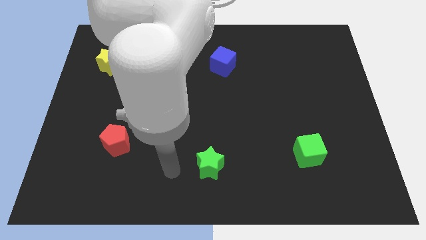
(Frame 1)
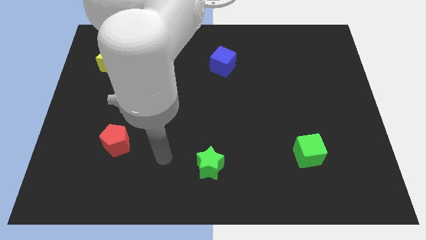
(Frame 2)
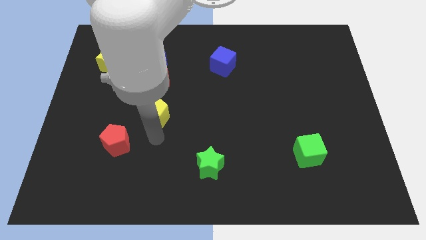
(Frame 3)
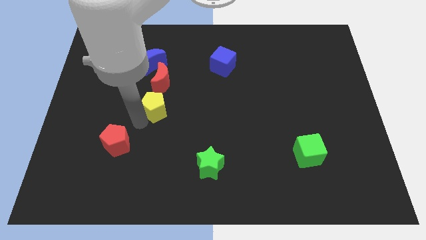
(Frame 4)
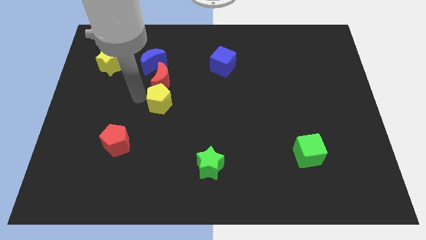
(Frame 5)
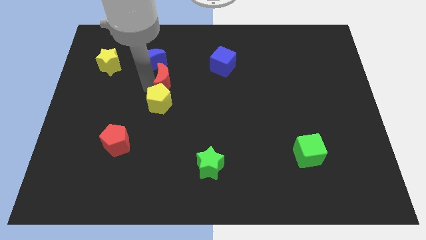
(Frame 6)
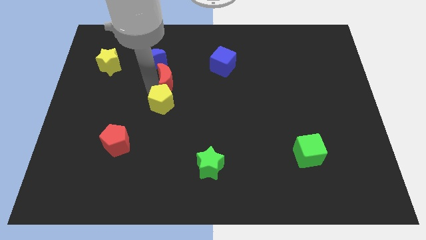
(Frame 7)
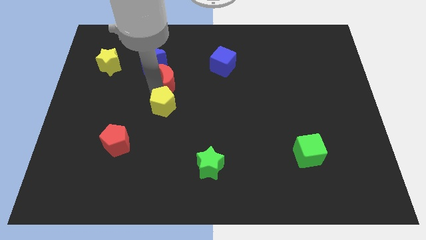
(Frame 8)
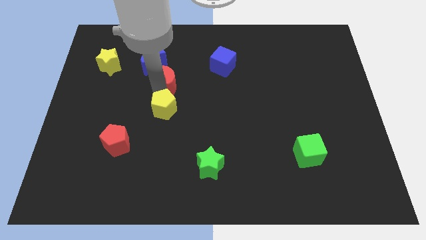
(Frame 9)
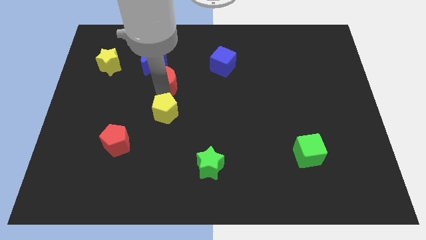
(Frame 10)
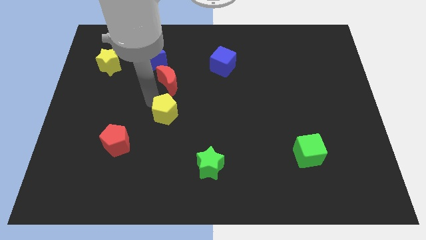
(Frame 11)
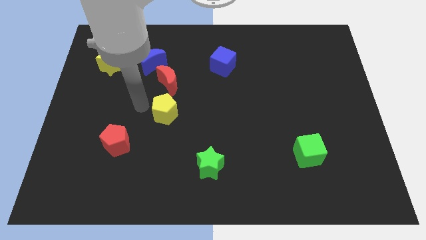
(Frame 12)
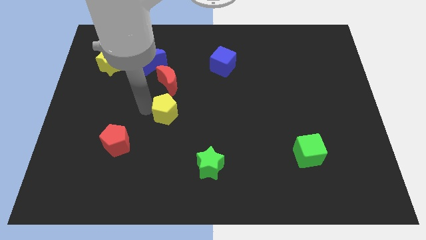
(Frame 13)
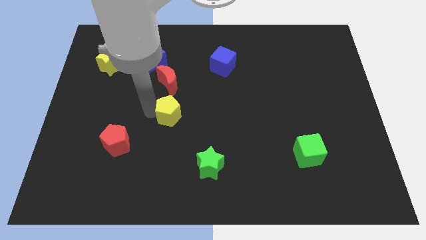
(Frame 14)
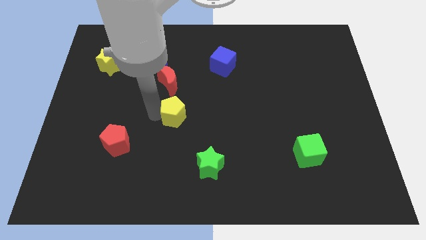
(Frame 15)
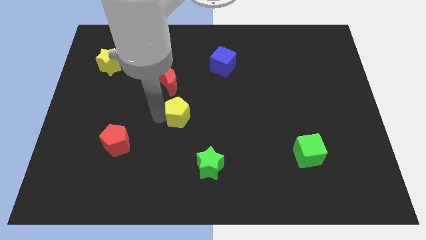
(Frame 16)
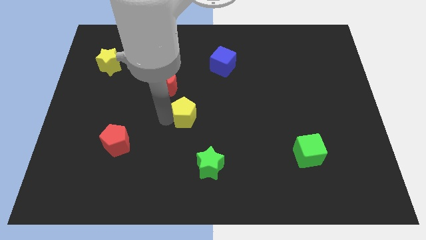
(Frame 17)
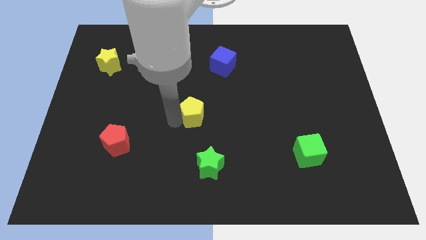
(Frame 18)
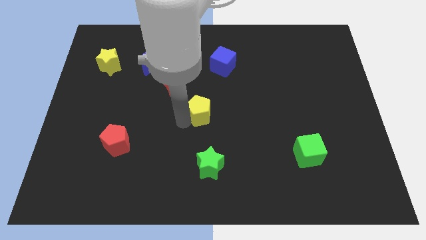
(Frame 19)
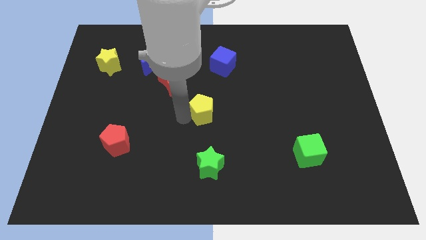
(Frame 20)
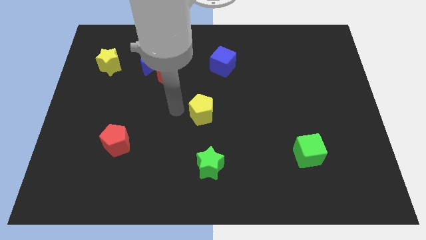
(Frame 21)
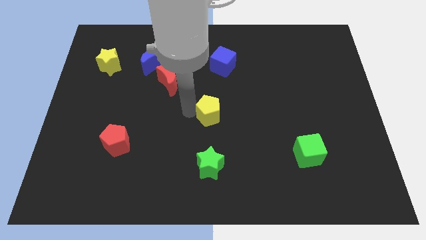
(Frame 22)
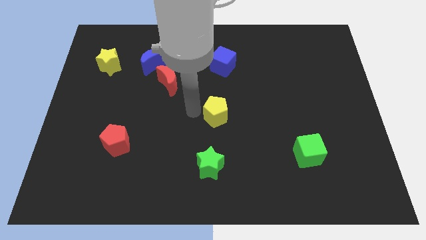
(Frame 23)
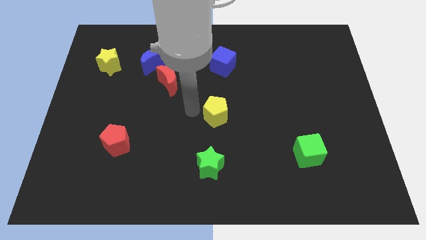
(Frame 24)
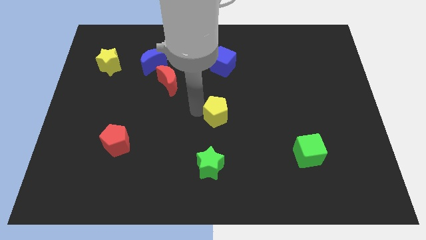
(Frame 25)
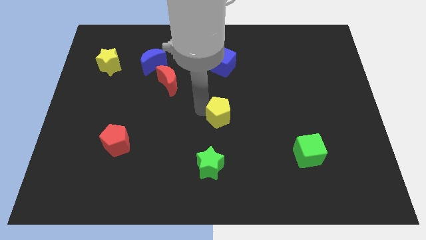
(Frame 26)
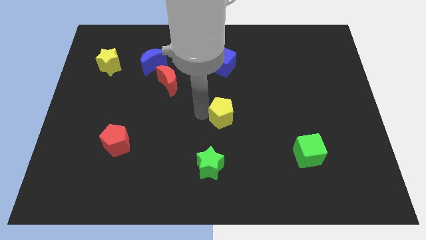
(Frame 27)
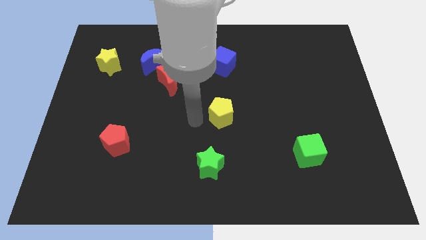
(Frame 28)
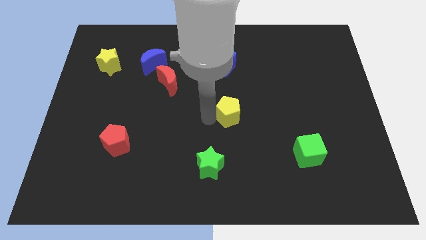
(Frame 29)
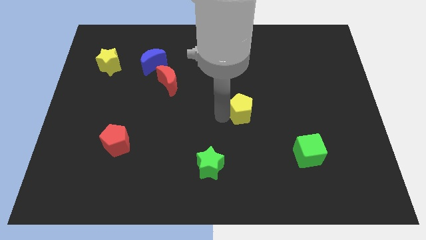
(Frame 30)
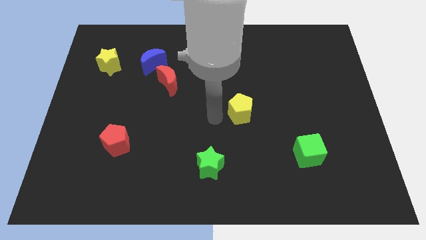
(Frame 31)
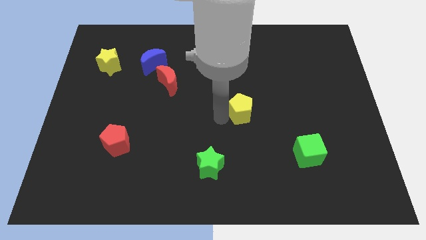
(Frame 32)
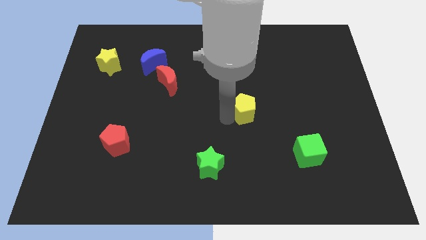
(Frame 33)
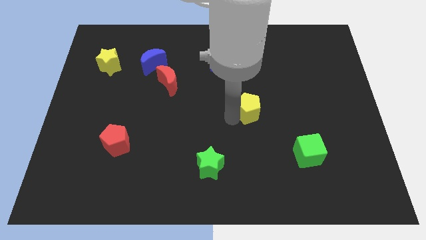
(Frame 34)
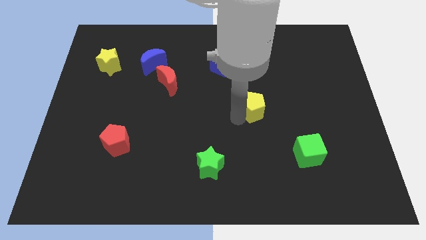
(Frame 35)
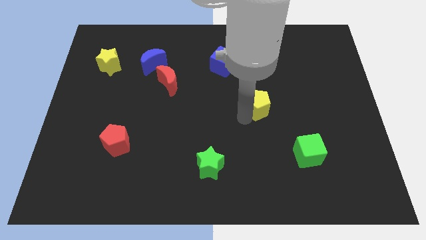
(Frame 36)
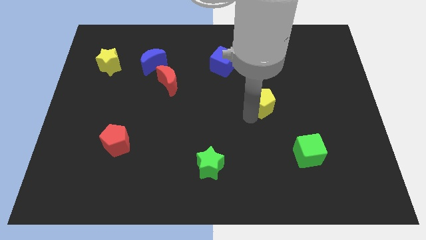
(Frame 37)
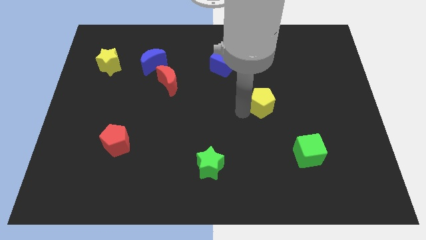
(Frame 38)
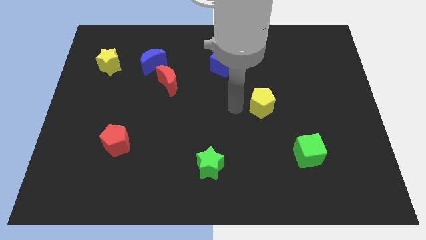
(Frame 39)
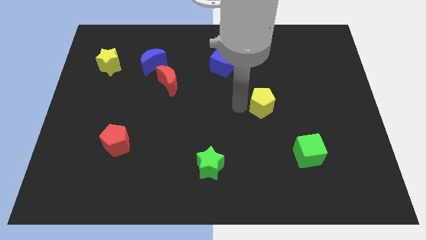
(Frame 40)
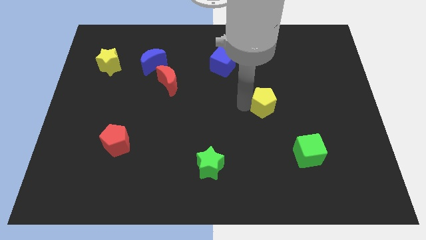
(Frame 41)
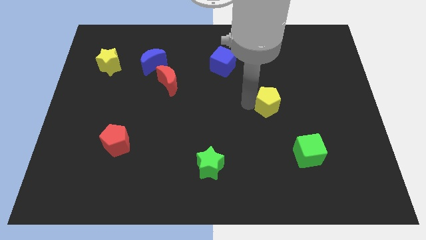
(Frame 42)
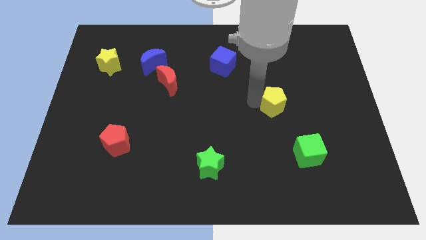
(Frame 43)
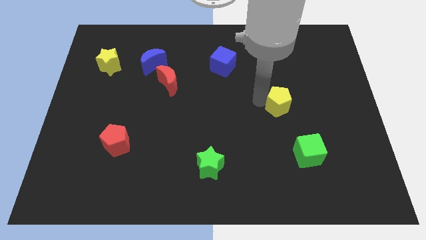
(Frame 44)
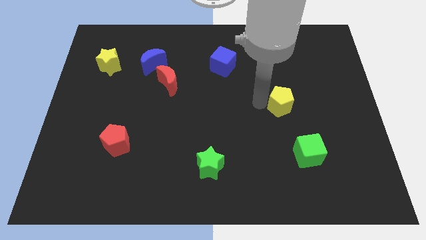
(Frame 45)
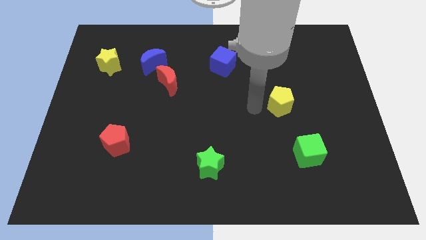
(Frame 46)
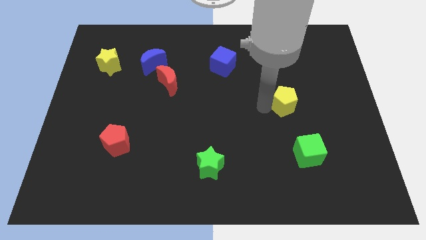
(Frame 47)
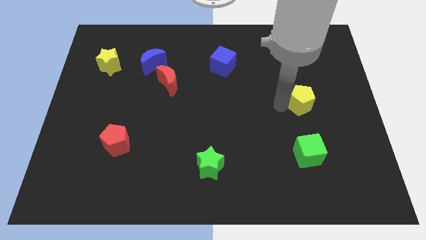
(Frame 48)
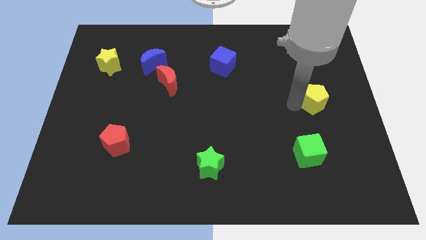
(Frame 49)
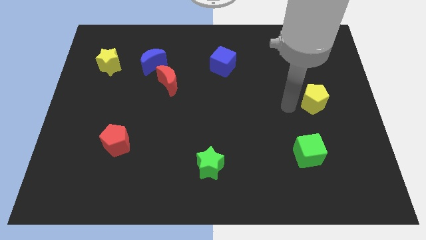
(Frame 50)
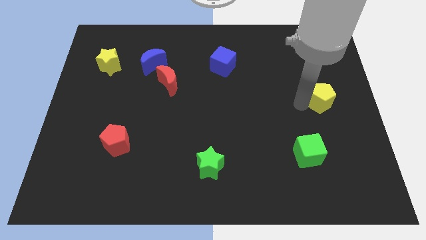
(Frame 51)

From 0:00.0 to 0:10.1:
push the yellow pentagon to the right side of the board

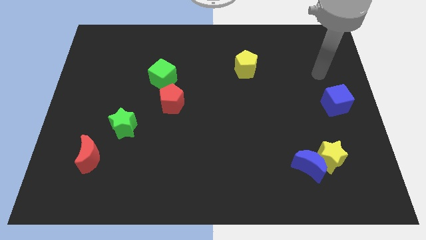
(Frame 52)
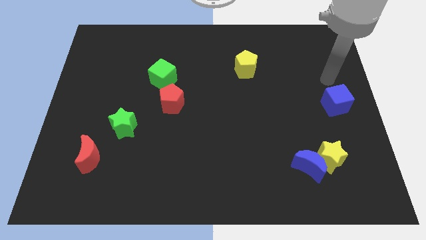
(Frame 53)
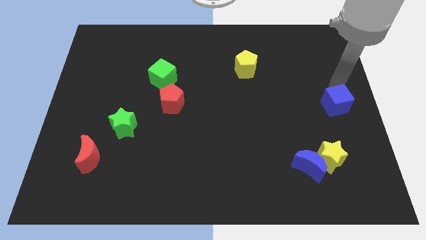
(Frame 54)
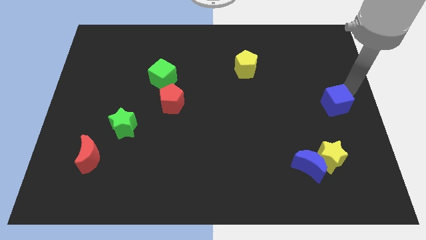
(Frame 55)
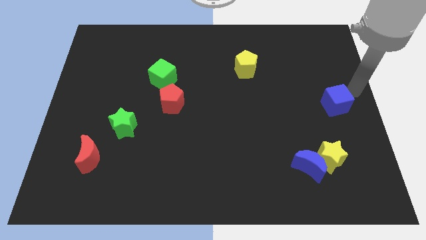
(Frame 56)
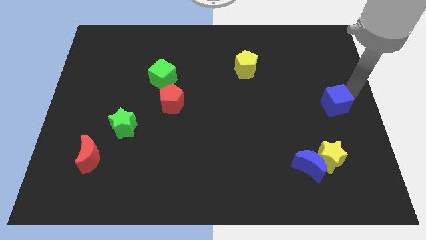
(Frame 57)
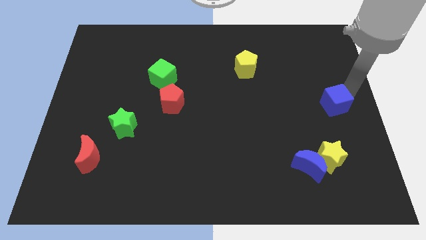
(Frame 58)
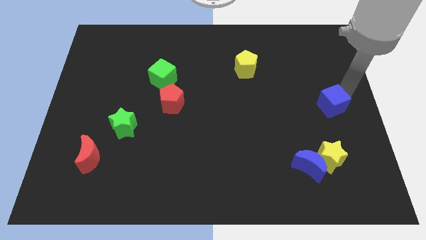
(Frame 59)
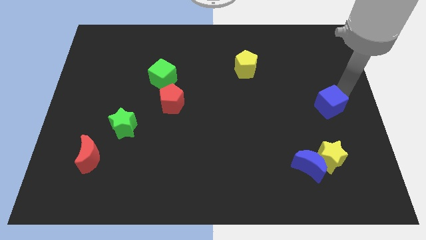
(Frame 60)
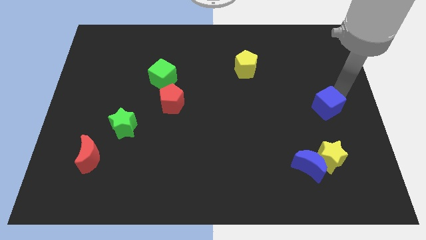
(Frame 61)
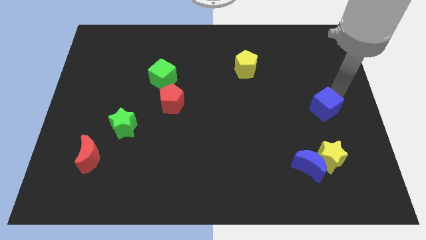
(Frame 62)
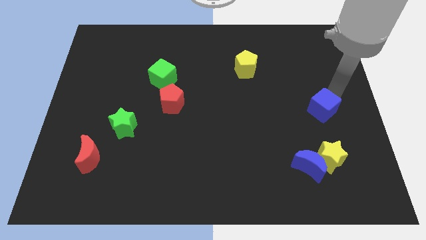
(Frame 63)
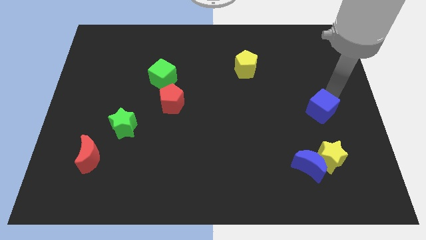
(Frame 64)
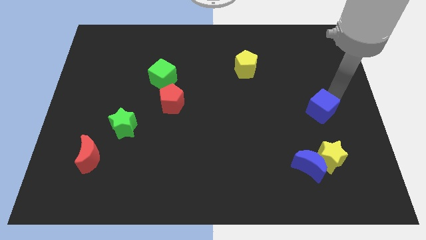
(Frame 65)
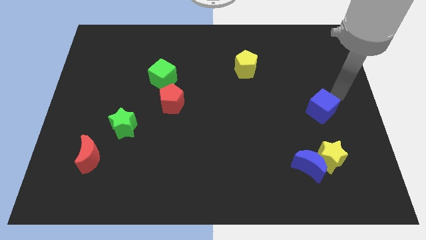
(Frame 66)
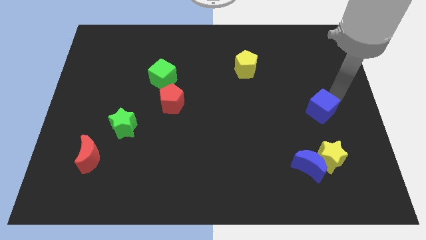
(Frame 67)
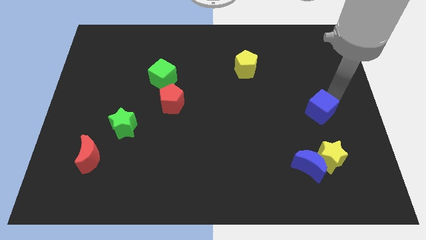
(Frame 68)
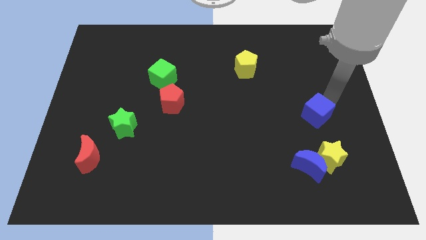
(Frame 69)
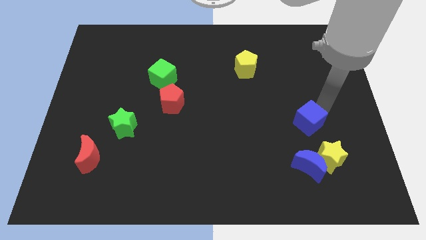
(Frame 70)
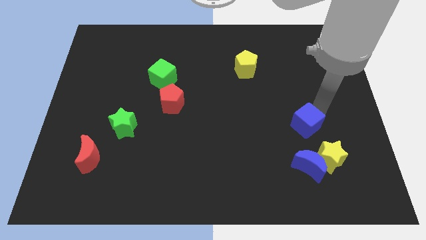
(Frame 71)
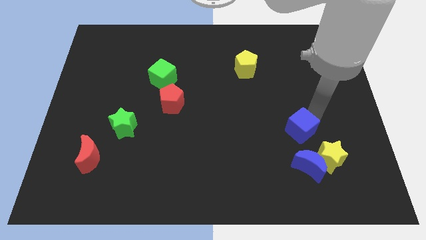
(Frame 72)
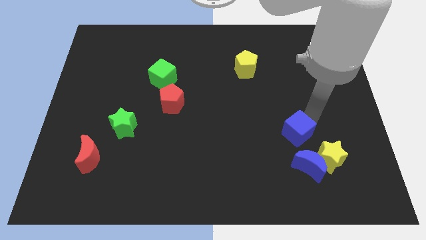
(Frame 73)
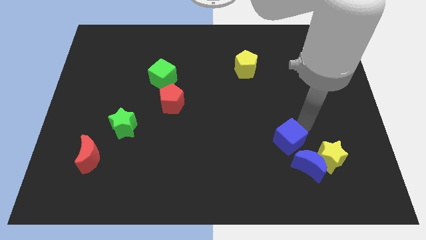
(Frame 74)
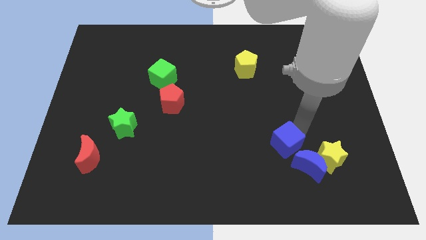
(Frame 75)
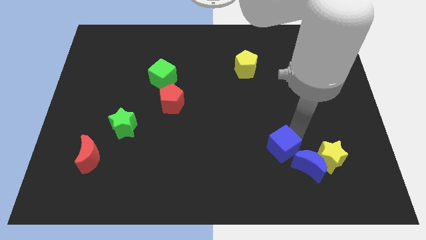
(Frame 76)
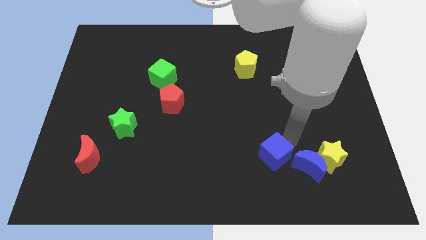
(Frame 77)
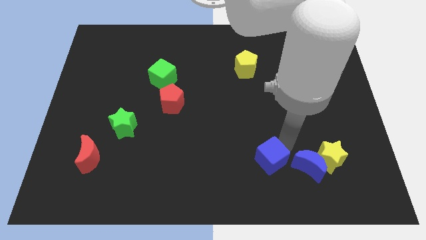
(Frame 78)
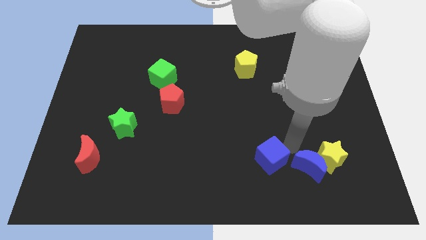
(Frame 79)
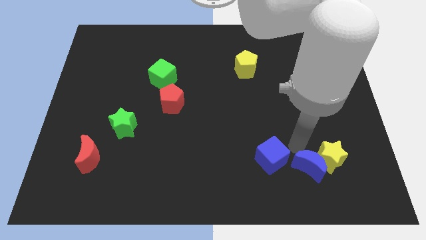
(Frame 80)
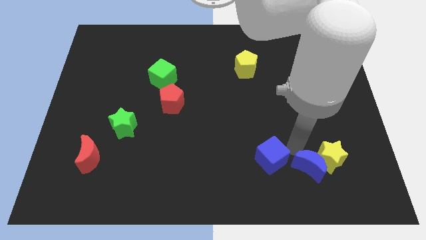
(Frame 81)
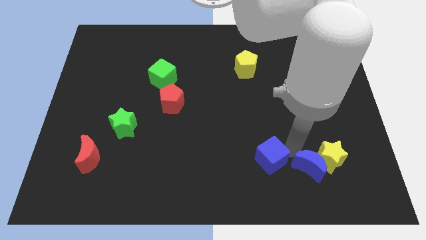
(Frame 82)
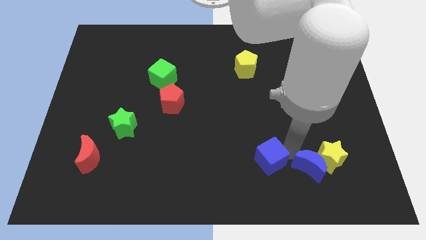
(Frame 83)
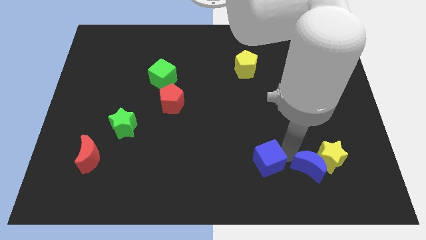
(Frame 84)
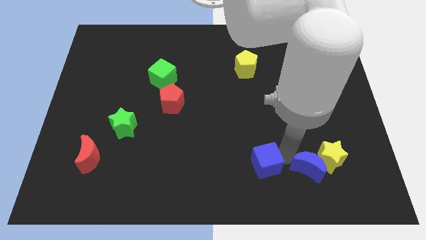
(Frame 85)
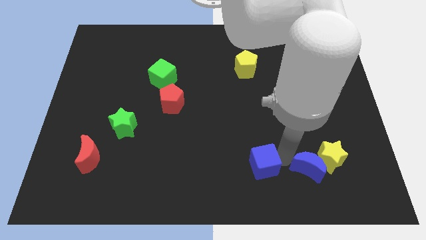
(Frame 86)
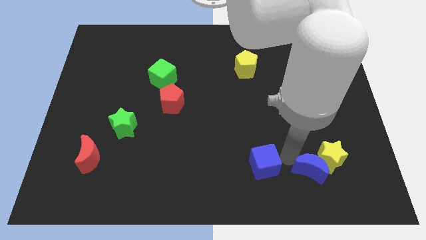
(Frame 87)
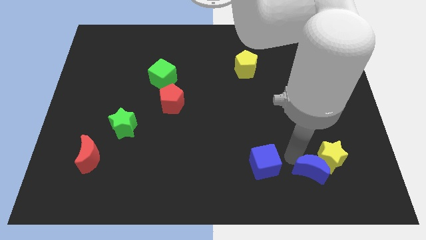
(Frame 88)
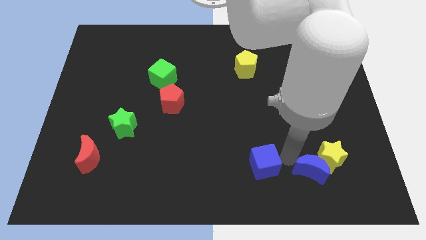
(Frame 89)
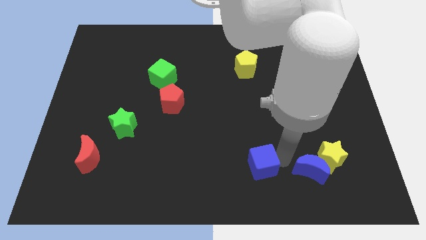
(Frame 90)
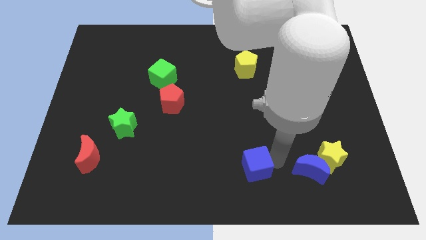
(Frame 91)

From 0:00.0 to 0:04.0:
push the blue cube to the bottom
